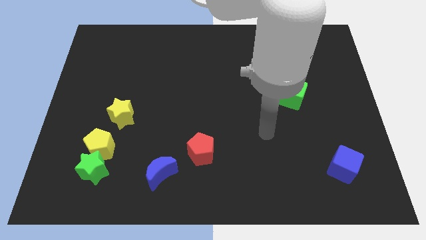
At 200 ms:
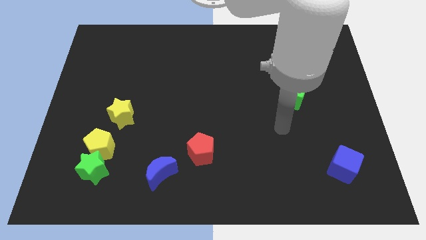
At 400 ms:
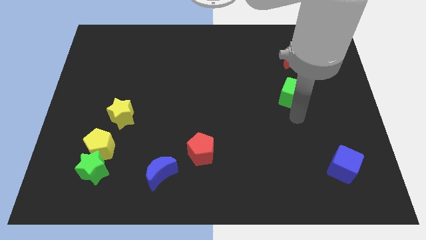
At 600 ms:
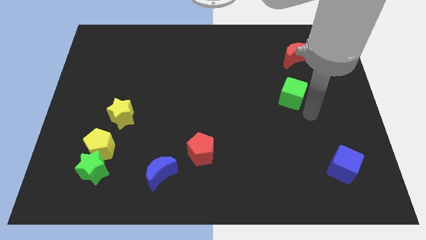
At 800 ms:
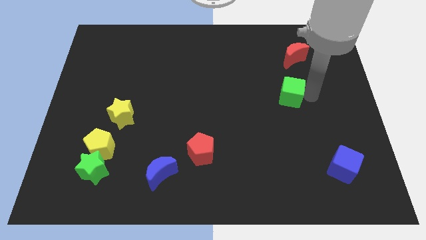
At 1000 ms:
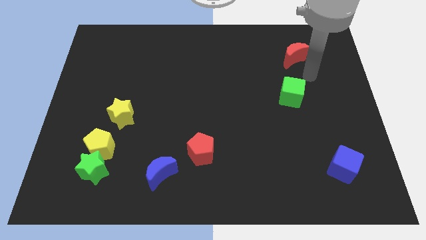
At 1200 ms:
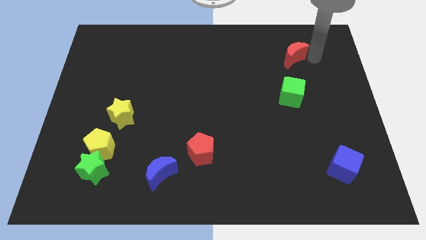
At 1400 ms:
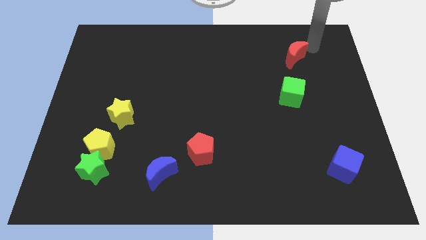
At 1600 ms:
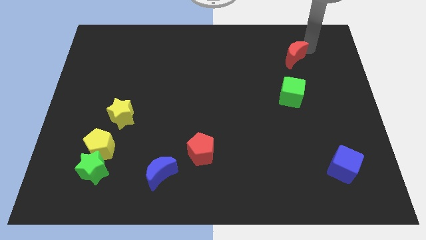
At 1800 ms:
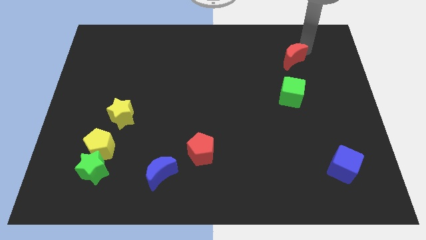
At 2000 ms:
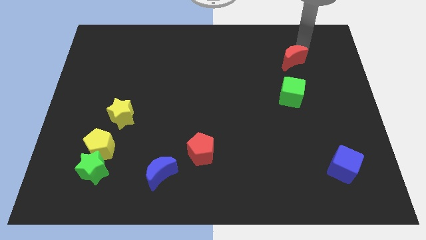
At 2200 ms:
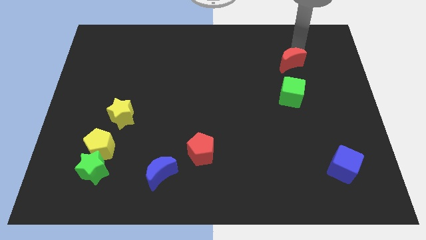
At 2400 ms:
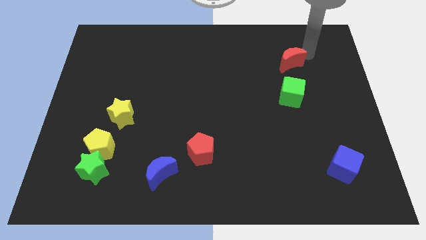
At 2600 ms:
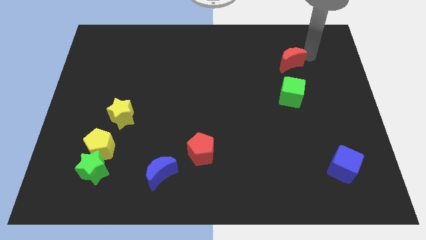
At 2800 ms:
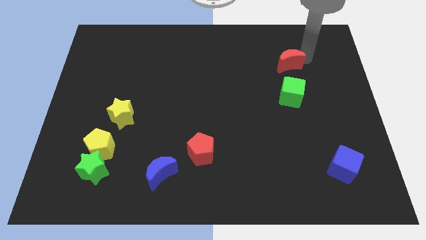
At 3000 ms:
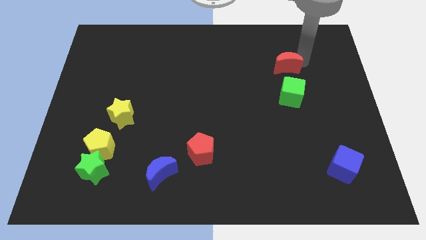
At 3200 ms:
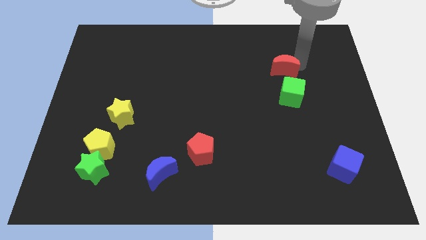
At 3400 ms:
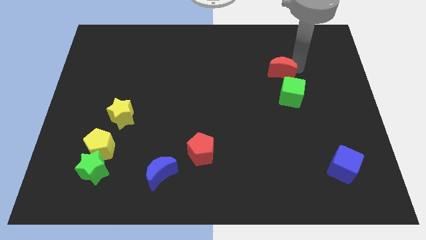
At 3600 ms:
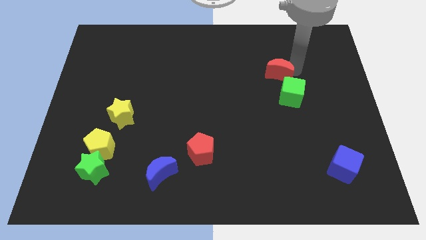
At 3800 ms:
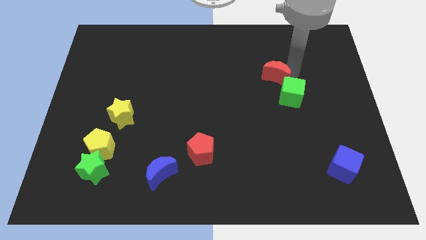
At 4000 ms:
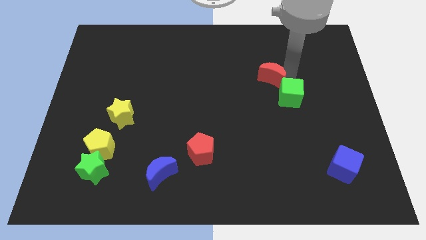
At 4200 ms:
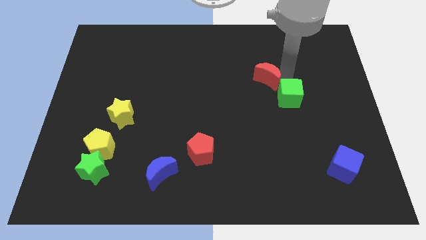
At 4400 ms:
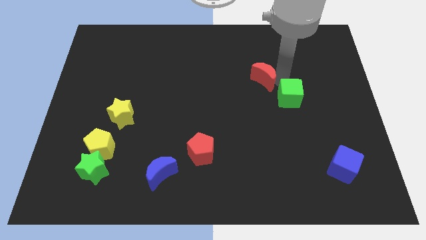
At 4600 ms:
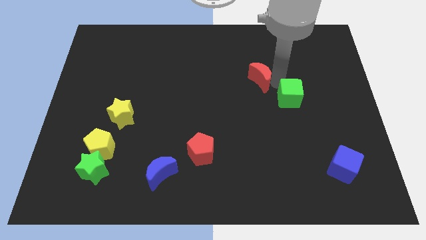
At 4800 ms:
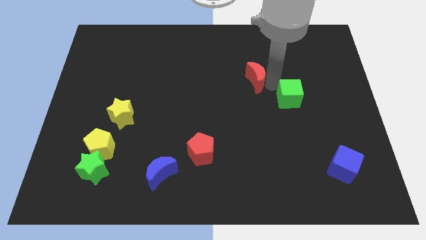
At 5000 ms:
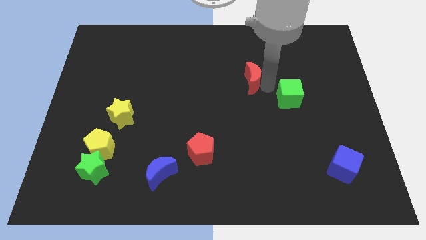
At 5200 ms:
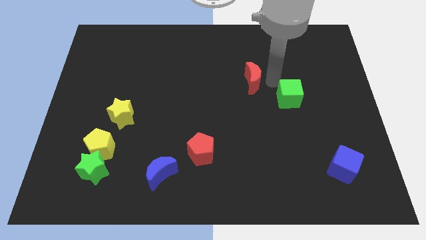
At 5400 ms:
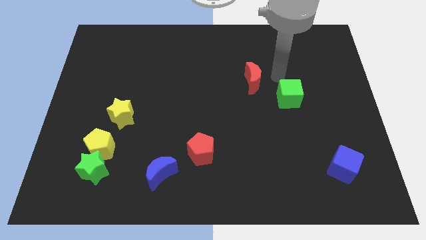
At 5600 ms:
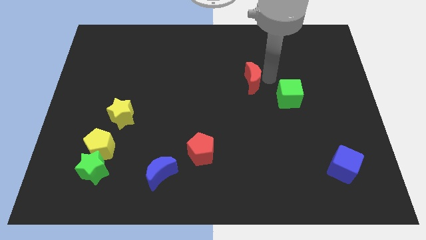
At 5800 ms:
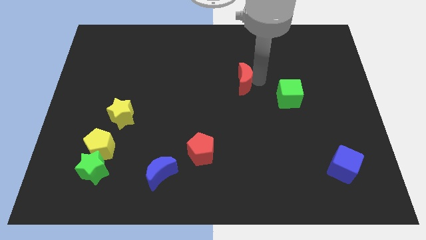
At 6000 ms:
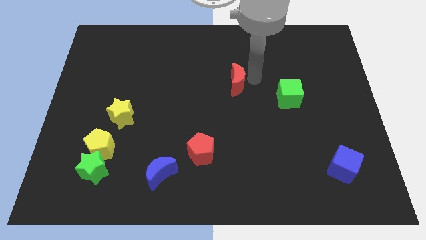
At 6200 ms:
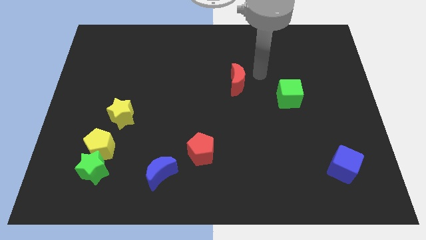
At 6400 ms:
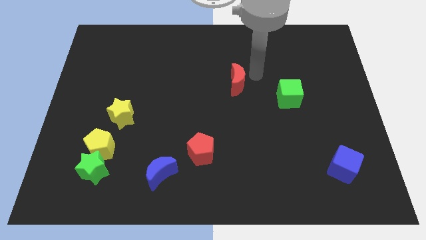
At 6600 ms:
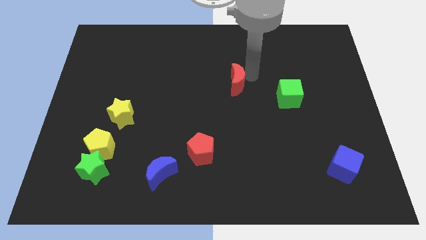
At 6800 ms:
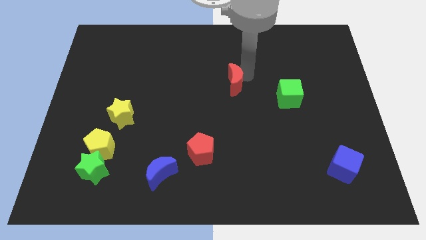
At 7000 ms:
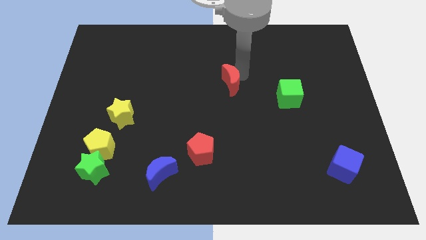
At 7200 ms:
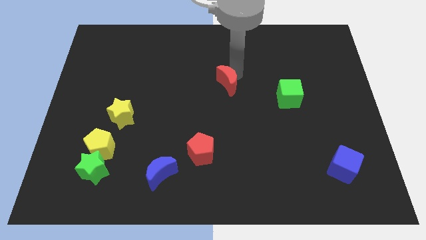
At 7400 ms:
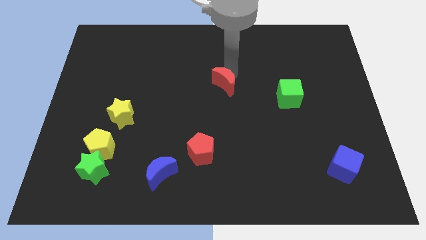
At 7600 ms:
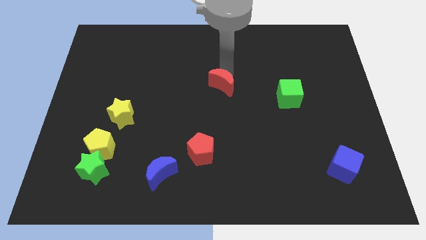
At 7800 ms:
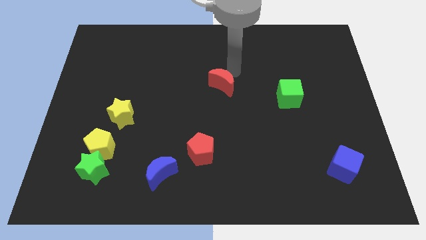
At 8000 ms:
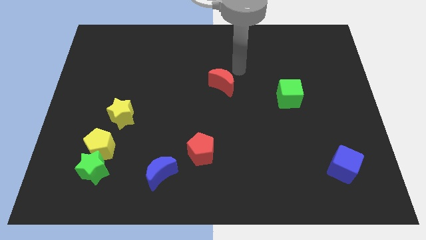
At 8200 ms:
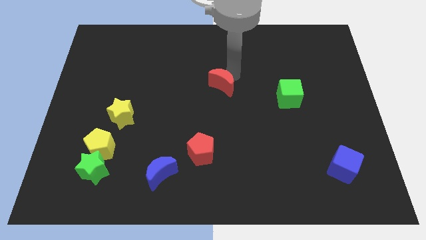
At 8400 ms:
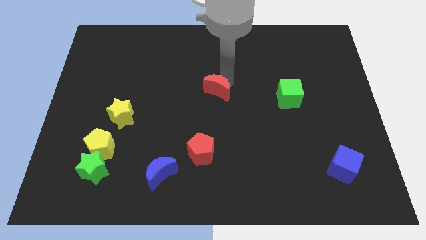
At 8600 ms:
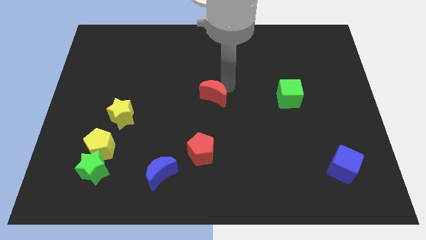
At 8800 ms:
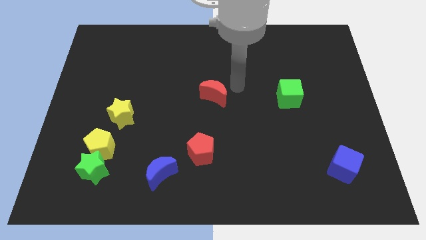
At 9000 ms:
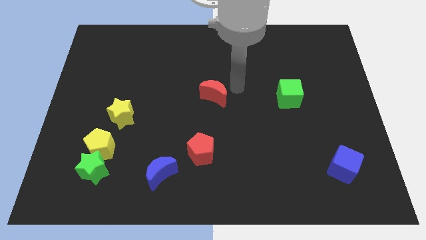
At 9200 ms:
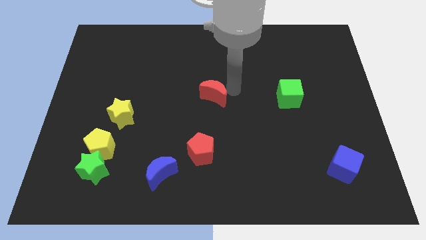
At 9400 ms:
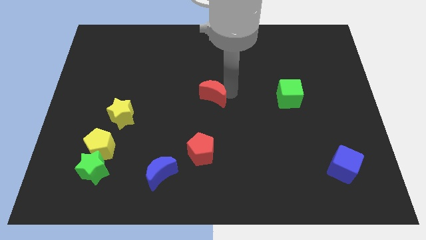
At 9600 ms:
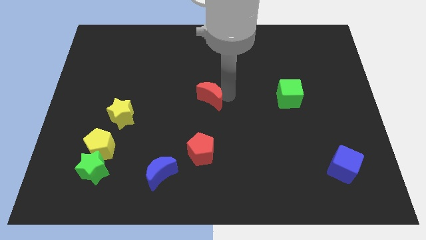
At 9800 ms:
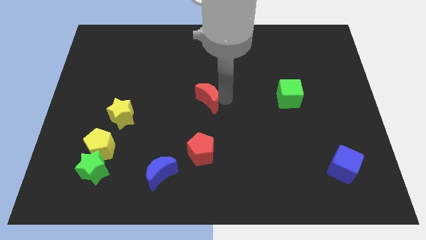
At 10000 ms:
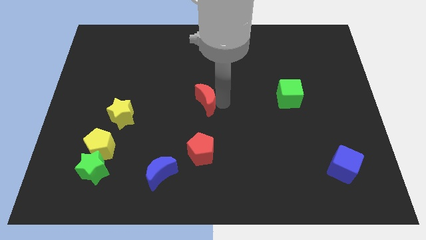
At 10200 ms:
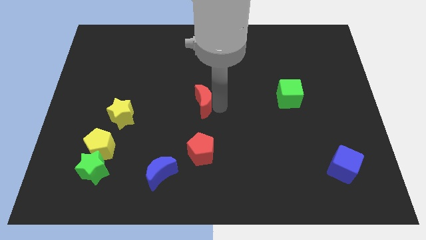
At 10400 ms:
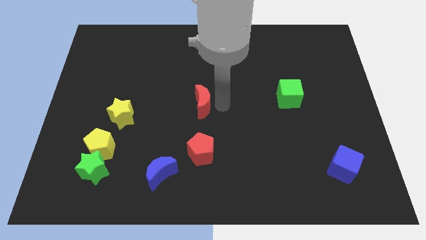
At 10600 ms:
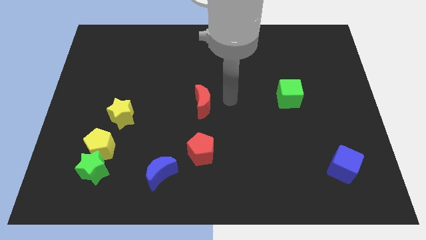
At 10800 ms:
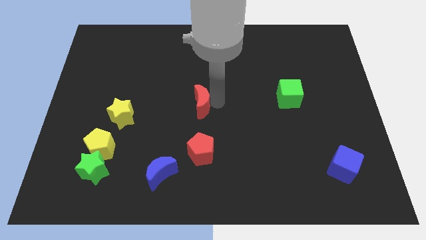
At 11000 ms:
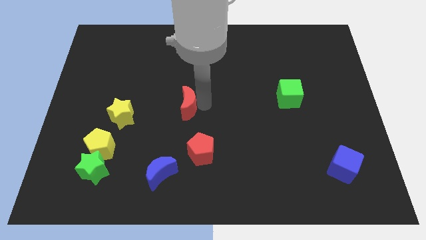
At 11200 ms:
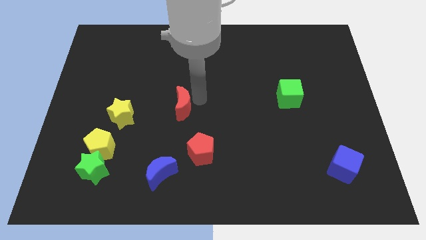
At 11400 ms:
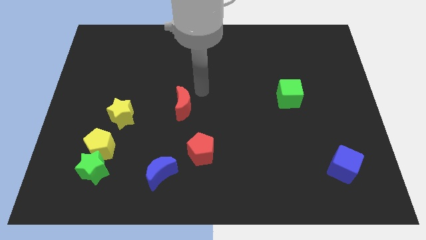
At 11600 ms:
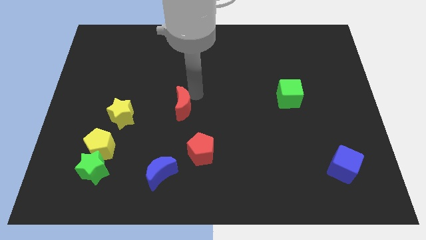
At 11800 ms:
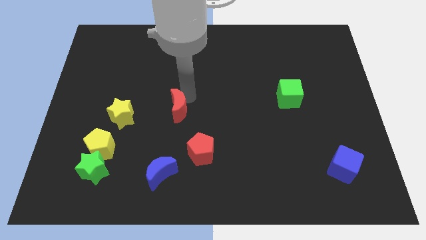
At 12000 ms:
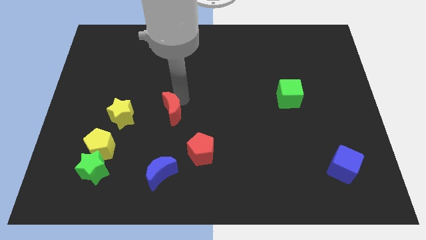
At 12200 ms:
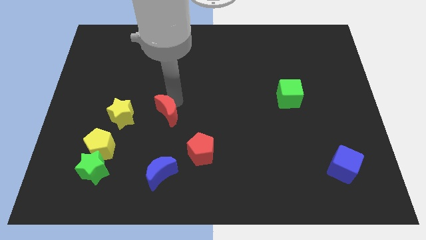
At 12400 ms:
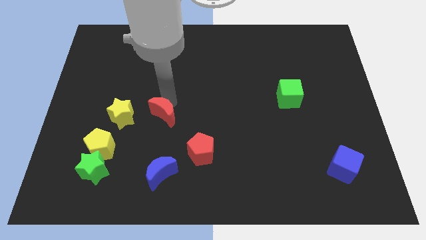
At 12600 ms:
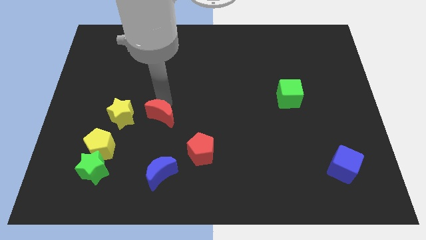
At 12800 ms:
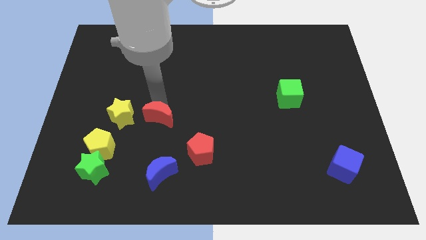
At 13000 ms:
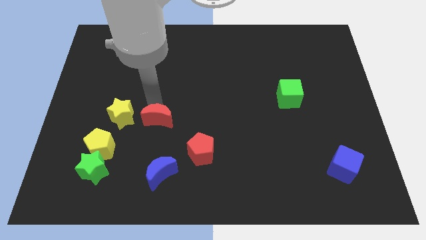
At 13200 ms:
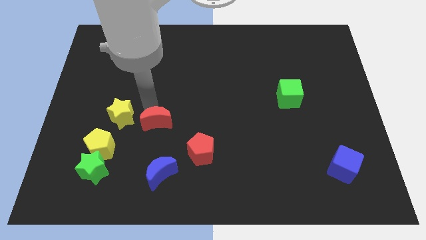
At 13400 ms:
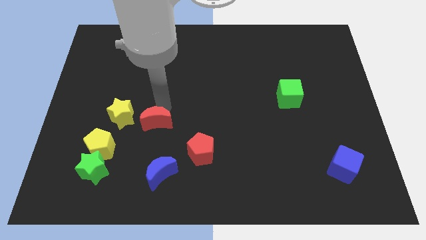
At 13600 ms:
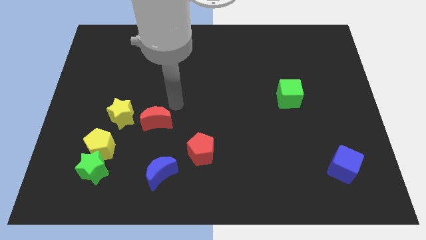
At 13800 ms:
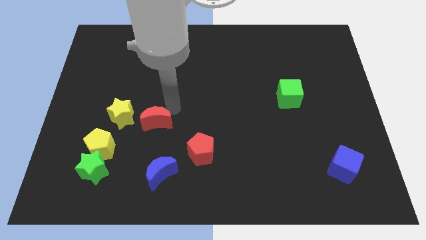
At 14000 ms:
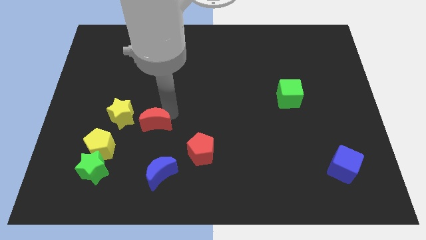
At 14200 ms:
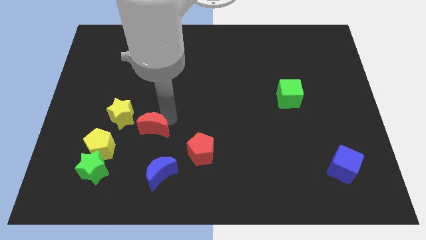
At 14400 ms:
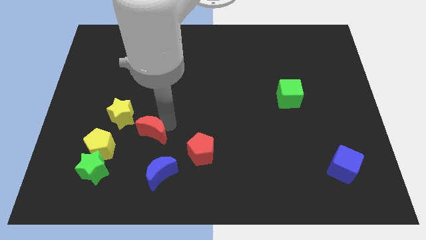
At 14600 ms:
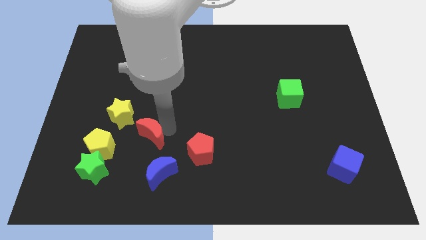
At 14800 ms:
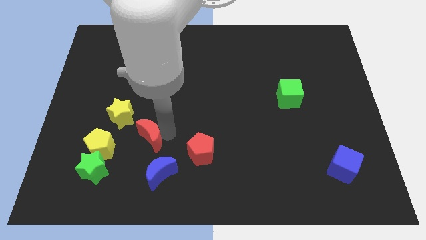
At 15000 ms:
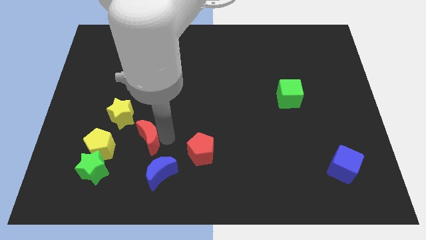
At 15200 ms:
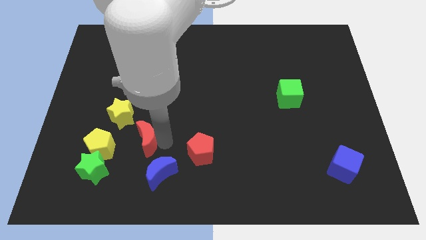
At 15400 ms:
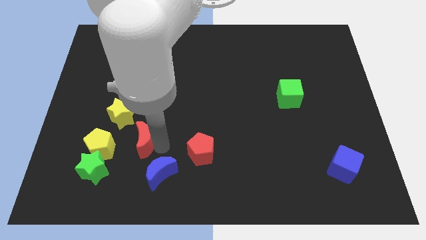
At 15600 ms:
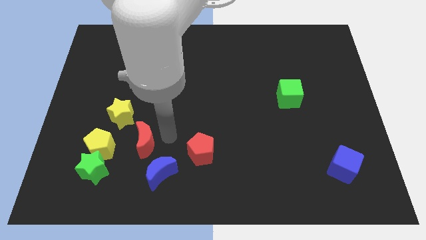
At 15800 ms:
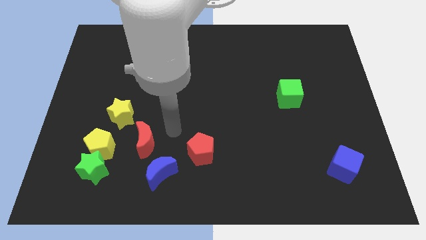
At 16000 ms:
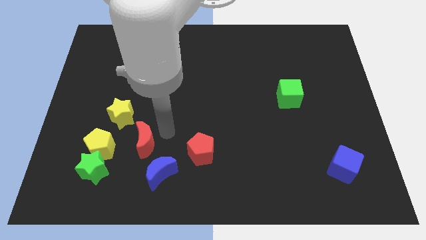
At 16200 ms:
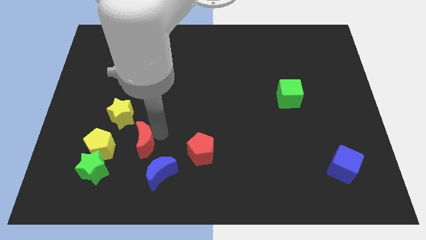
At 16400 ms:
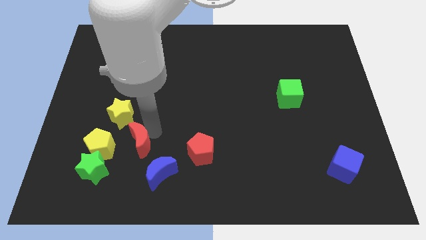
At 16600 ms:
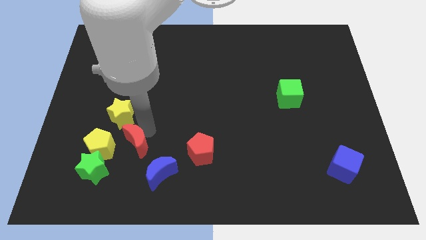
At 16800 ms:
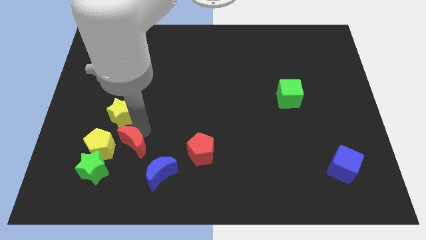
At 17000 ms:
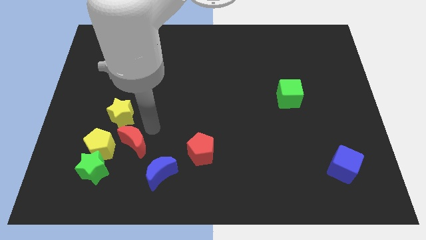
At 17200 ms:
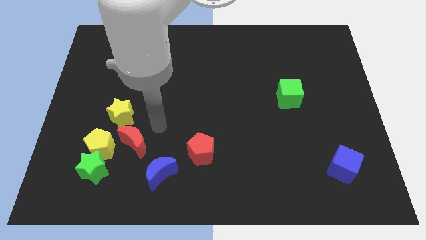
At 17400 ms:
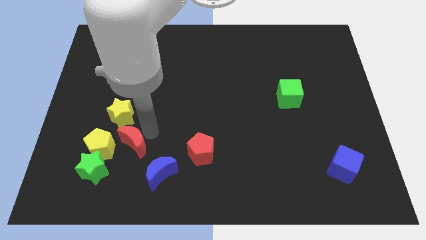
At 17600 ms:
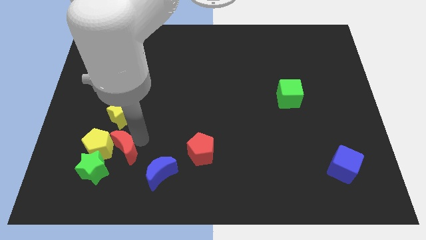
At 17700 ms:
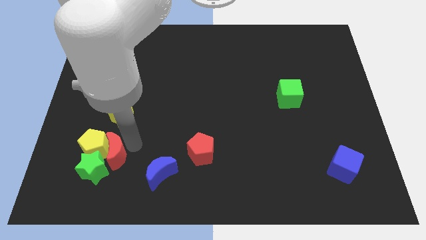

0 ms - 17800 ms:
put the red moon to the green star
